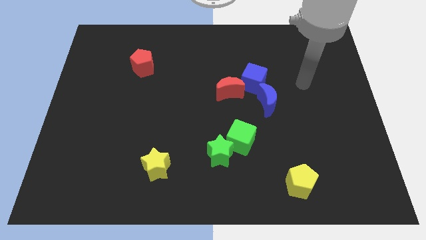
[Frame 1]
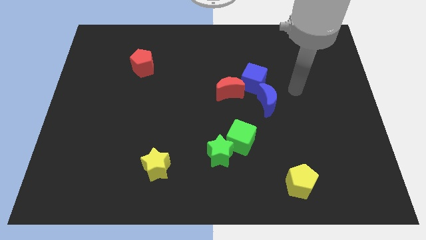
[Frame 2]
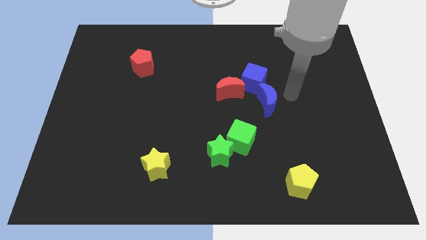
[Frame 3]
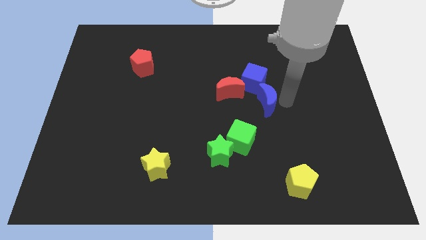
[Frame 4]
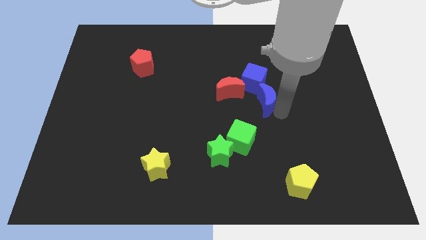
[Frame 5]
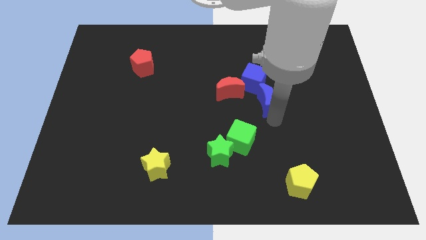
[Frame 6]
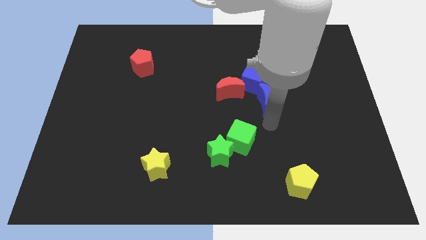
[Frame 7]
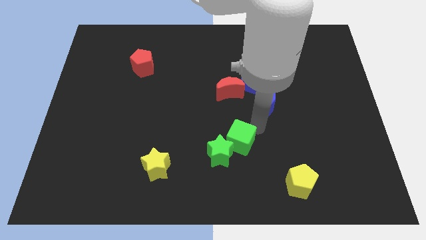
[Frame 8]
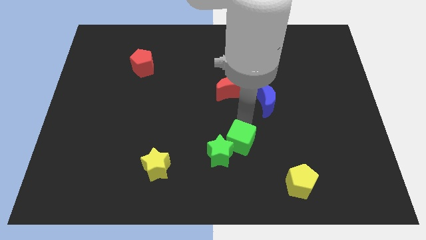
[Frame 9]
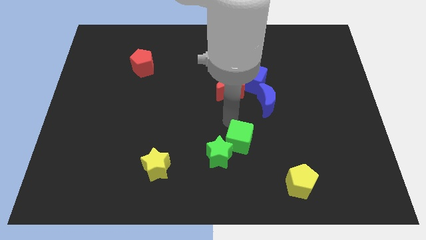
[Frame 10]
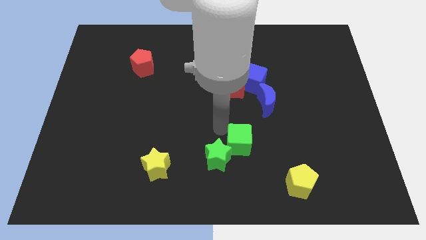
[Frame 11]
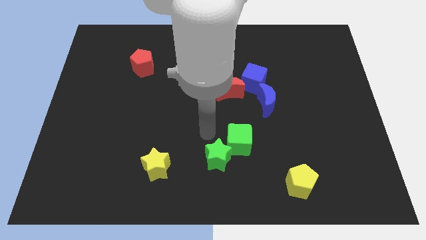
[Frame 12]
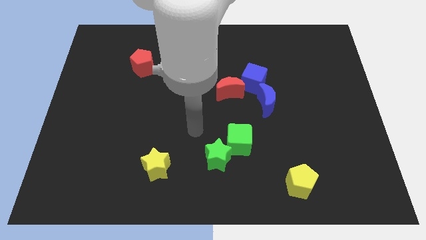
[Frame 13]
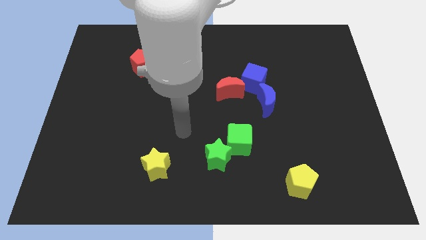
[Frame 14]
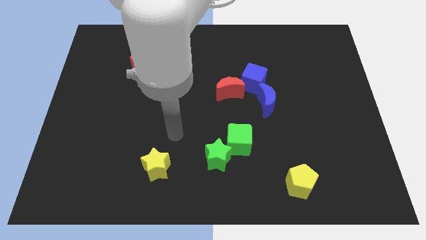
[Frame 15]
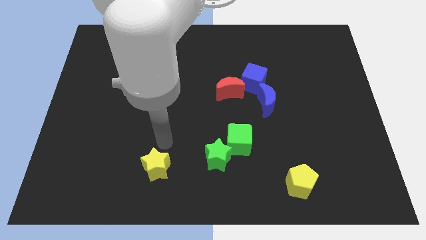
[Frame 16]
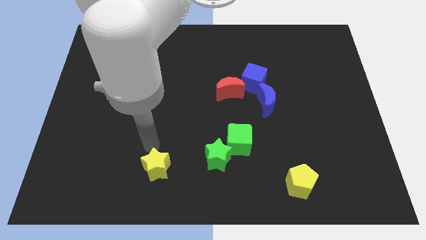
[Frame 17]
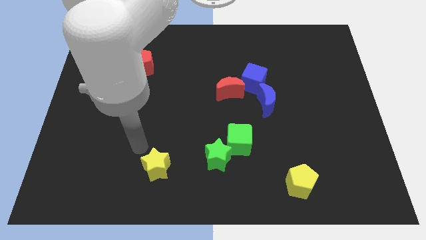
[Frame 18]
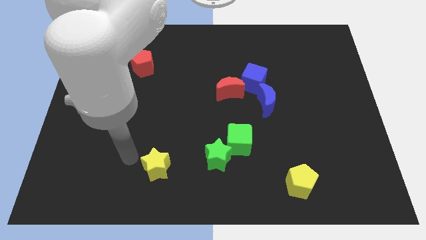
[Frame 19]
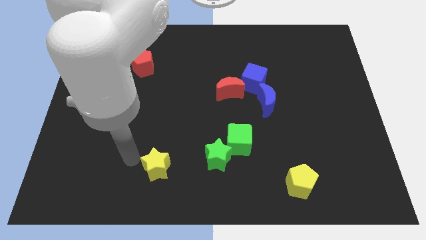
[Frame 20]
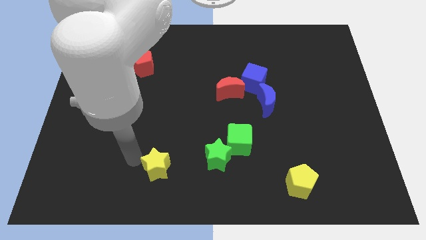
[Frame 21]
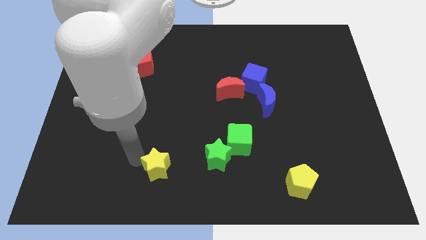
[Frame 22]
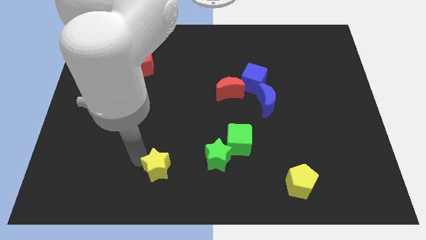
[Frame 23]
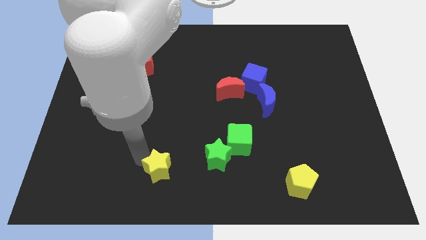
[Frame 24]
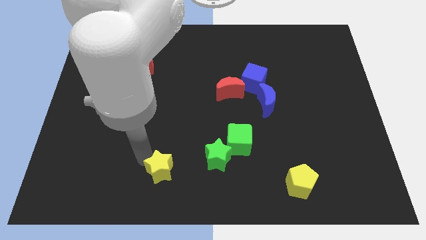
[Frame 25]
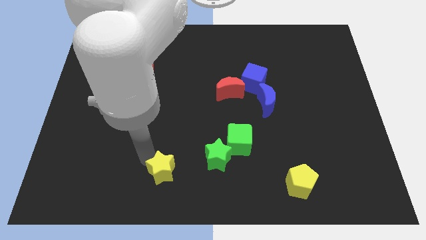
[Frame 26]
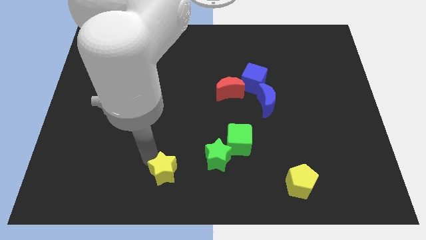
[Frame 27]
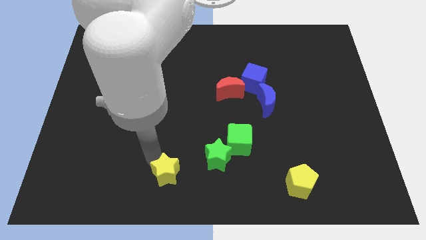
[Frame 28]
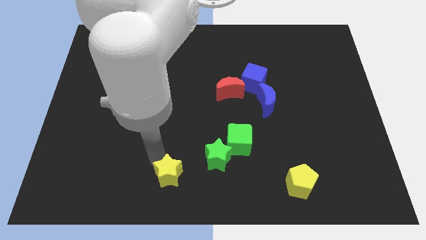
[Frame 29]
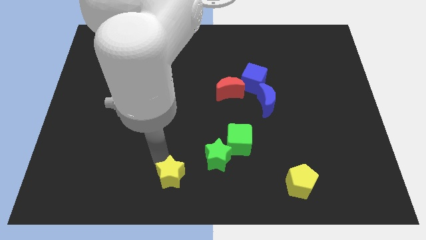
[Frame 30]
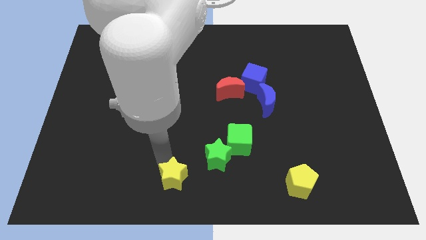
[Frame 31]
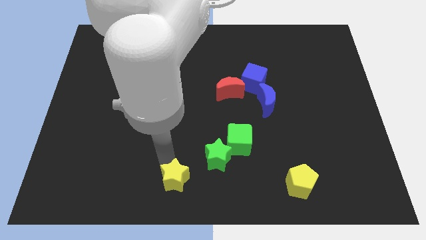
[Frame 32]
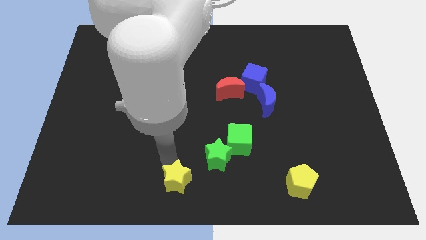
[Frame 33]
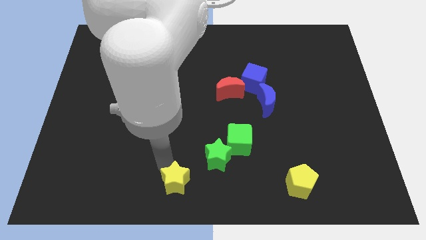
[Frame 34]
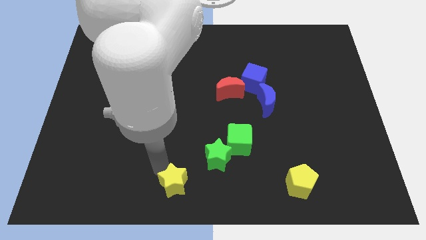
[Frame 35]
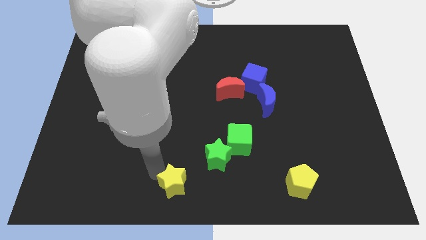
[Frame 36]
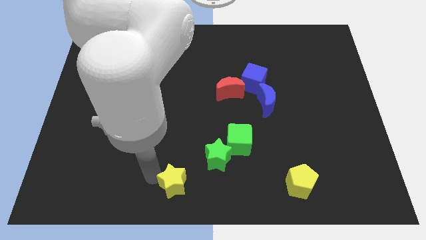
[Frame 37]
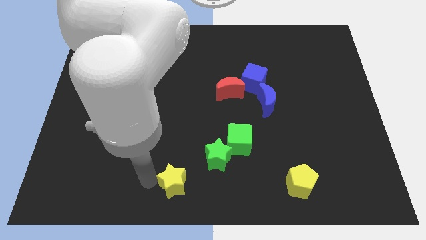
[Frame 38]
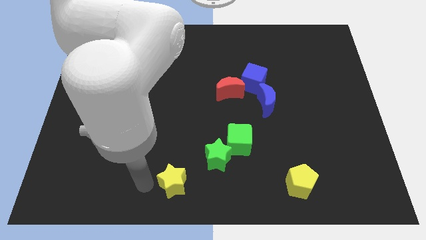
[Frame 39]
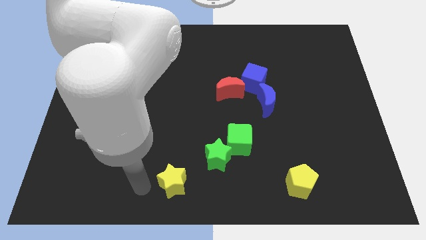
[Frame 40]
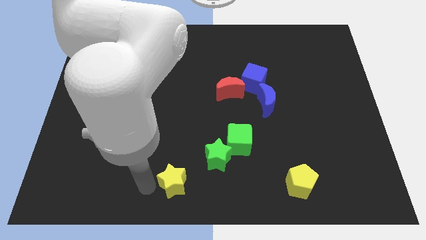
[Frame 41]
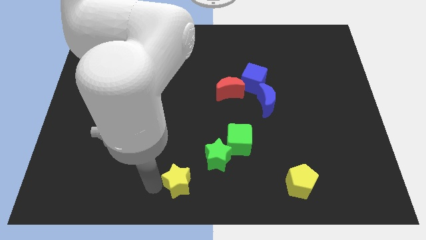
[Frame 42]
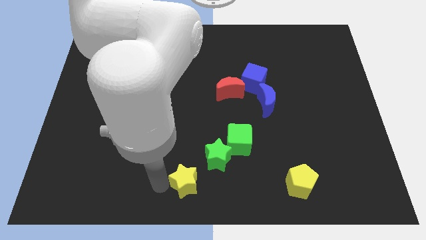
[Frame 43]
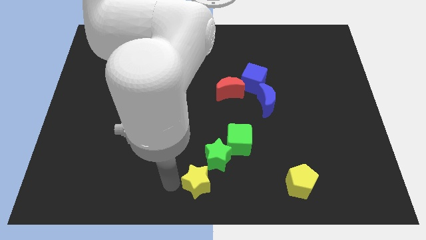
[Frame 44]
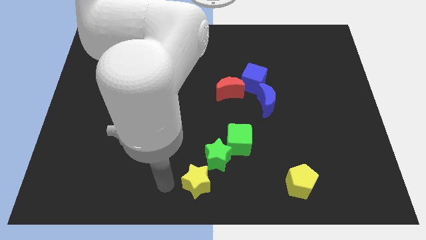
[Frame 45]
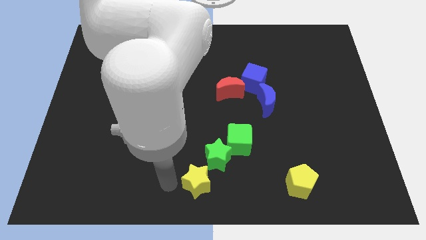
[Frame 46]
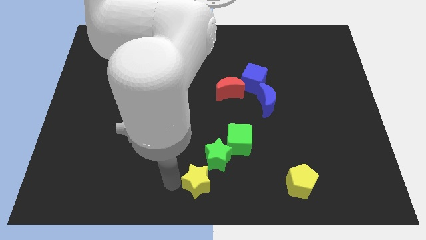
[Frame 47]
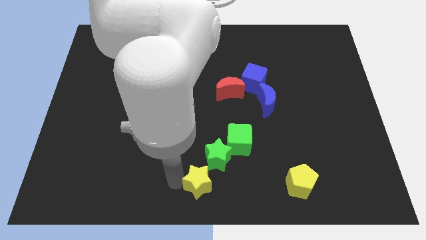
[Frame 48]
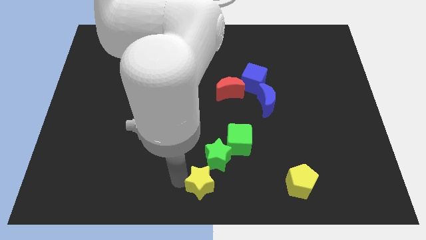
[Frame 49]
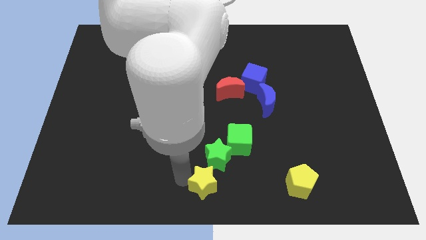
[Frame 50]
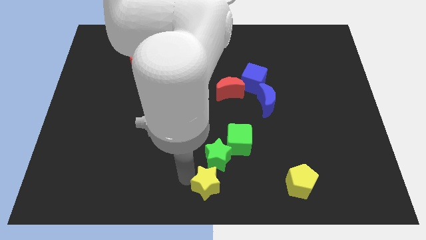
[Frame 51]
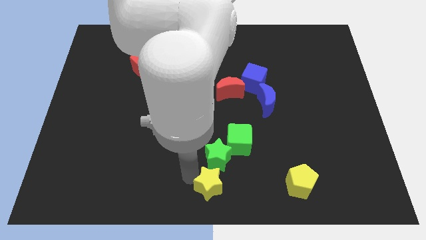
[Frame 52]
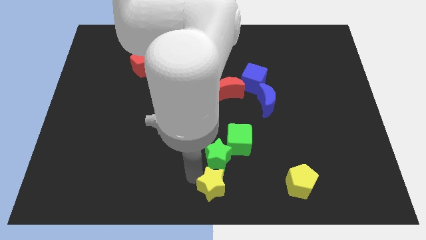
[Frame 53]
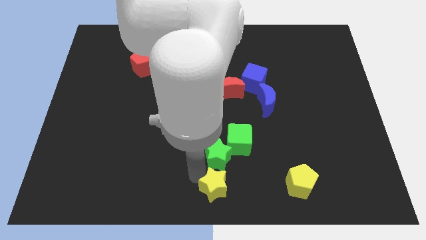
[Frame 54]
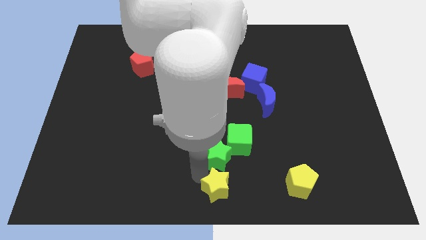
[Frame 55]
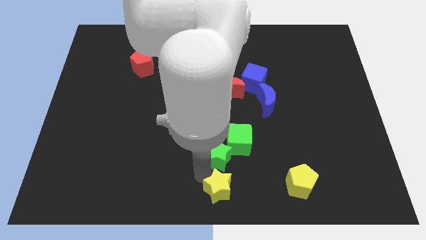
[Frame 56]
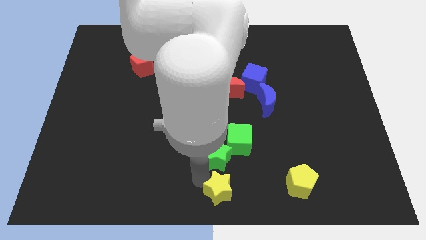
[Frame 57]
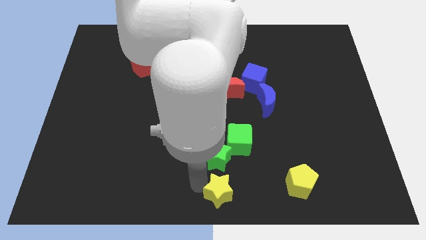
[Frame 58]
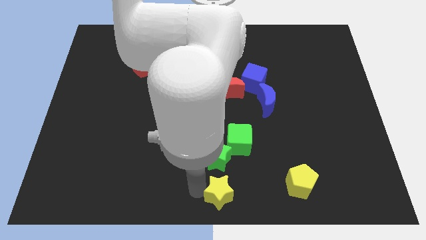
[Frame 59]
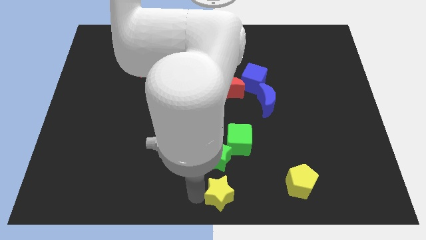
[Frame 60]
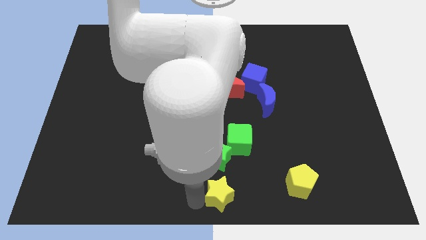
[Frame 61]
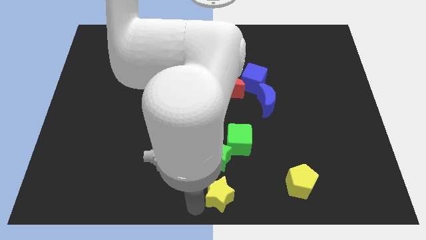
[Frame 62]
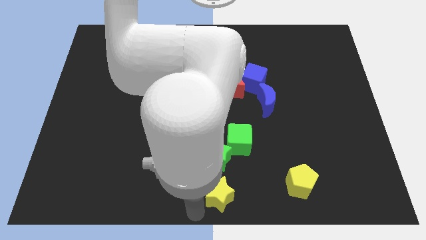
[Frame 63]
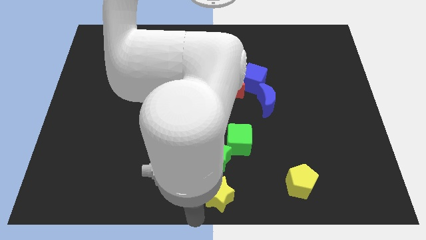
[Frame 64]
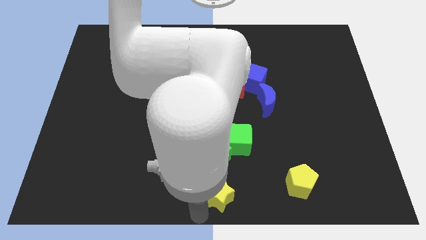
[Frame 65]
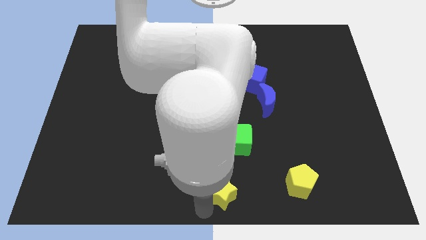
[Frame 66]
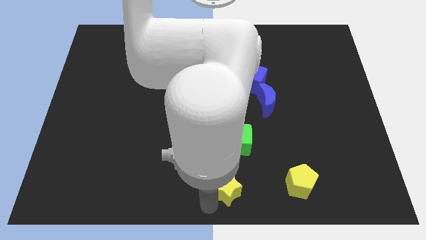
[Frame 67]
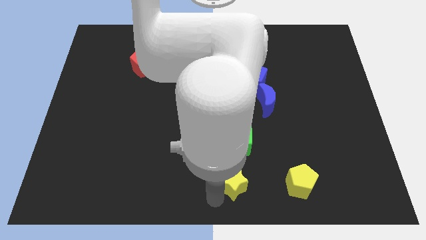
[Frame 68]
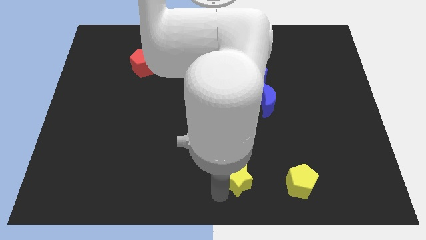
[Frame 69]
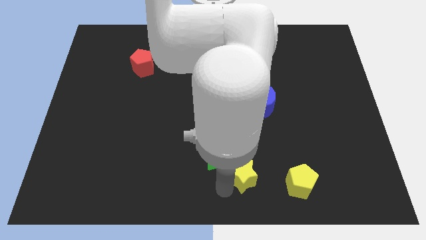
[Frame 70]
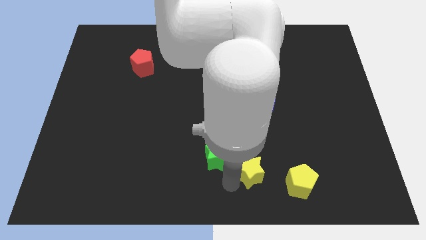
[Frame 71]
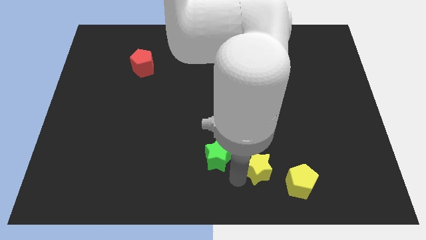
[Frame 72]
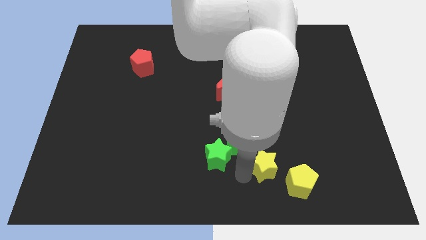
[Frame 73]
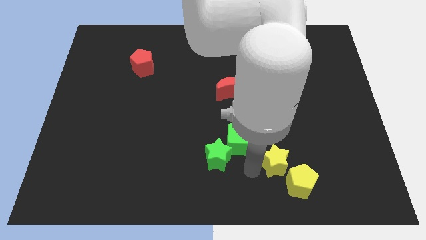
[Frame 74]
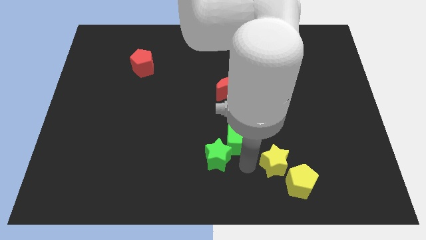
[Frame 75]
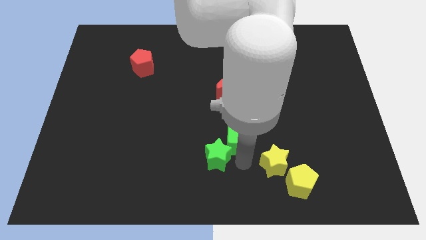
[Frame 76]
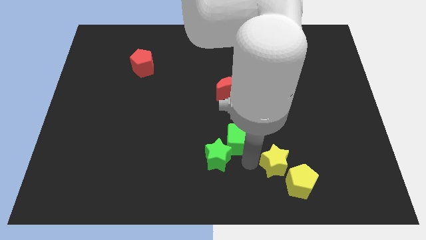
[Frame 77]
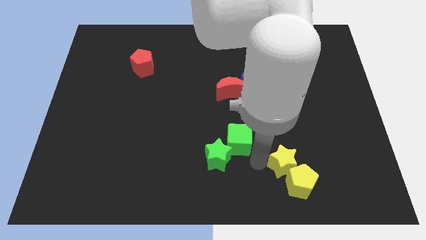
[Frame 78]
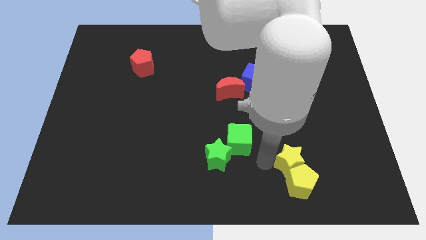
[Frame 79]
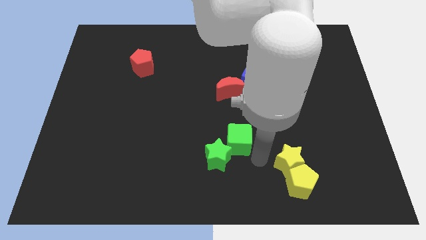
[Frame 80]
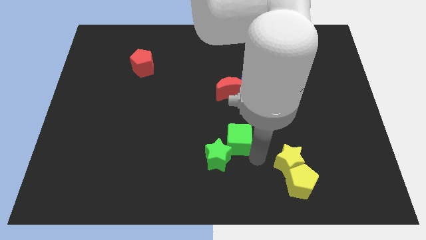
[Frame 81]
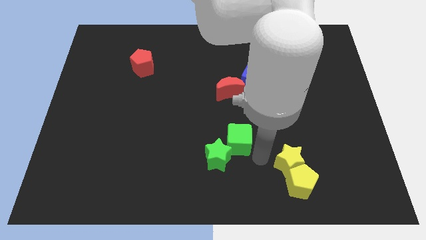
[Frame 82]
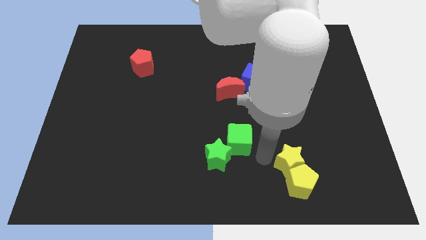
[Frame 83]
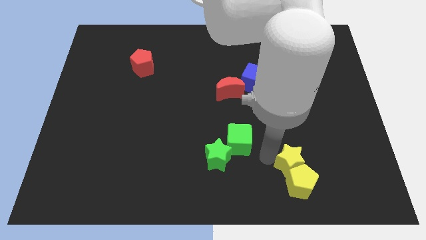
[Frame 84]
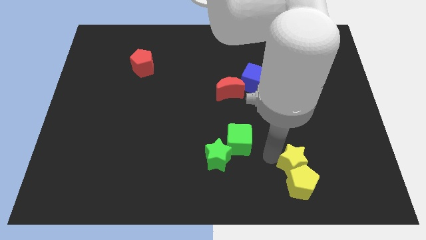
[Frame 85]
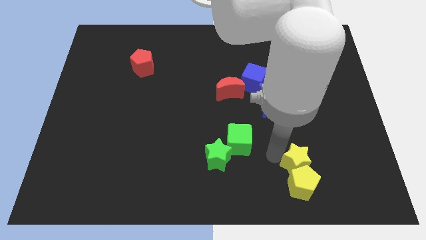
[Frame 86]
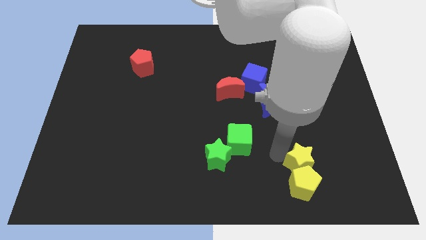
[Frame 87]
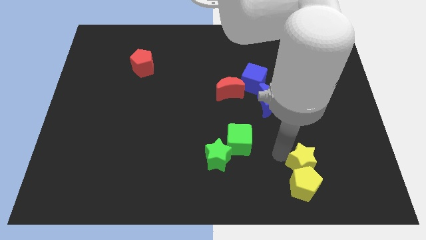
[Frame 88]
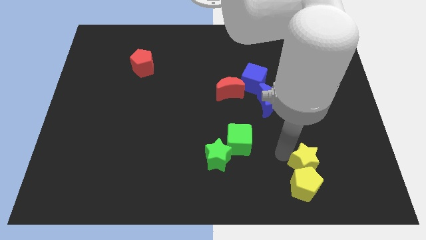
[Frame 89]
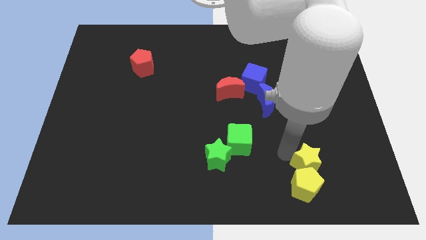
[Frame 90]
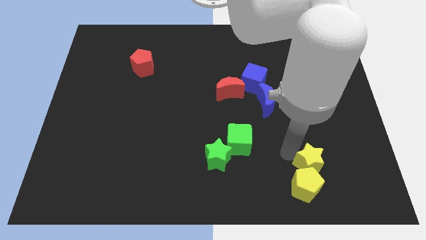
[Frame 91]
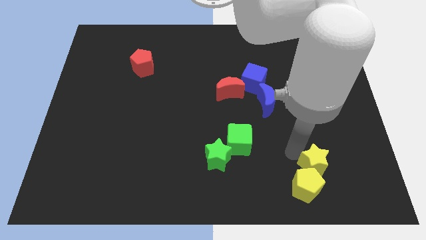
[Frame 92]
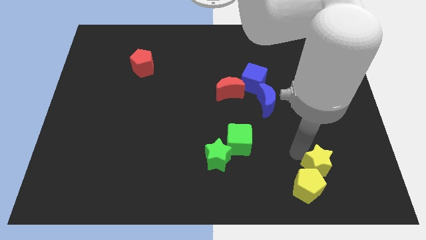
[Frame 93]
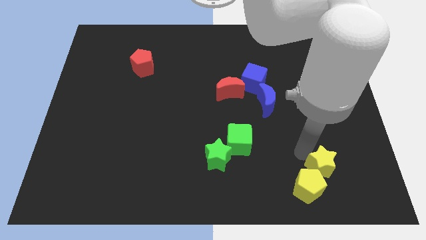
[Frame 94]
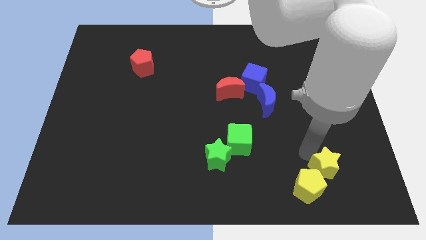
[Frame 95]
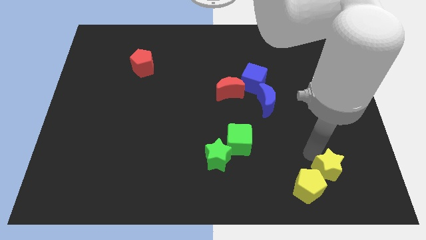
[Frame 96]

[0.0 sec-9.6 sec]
slide the yellow star right of the yellow pentagon
